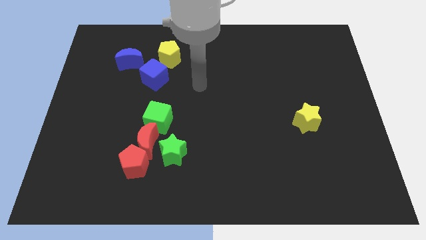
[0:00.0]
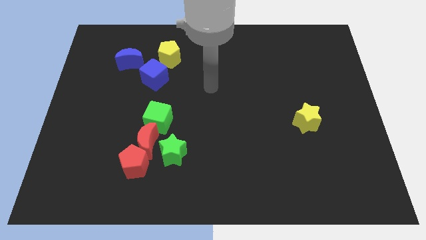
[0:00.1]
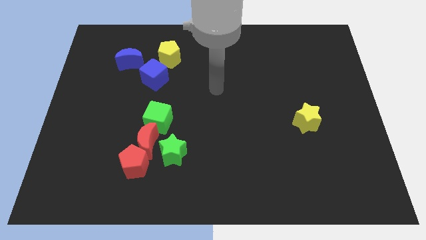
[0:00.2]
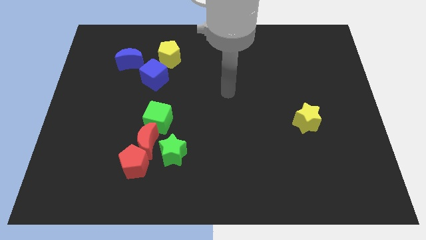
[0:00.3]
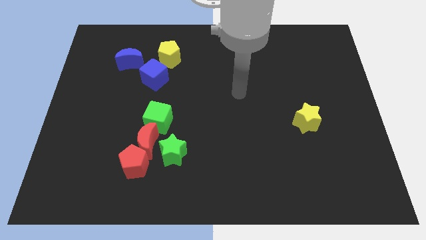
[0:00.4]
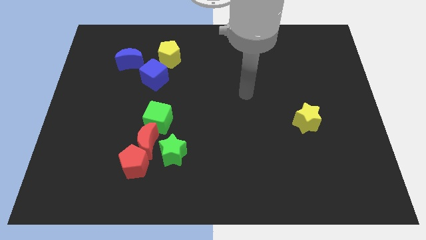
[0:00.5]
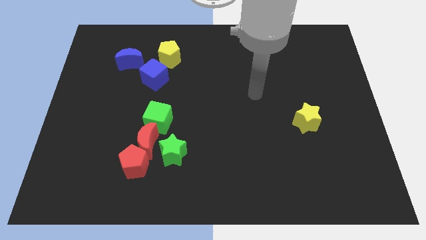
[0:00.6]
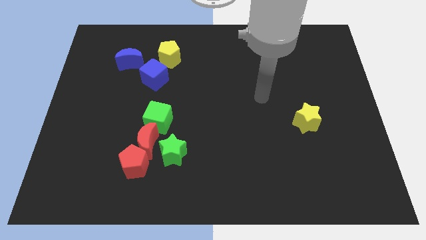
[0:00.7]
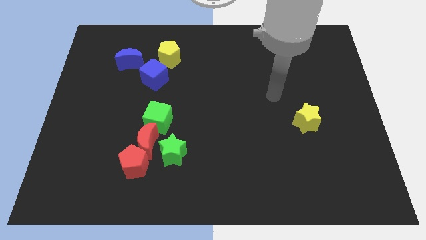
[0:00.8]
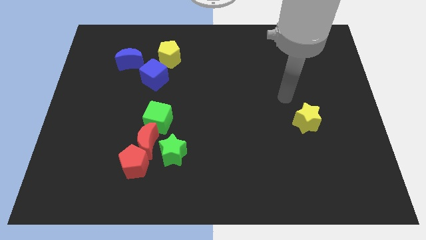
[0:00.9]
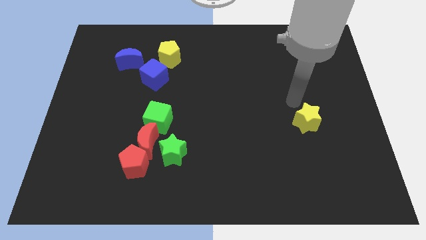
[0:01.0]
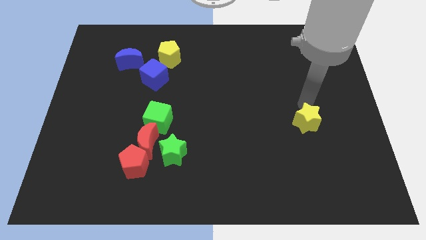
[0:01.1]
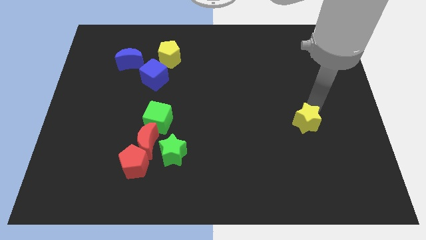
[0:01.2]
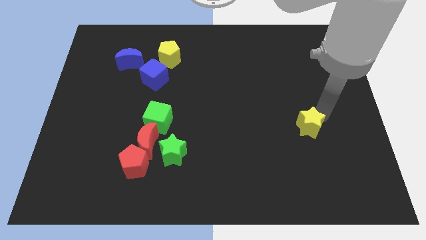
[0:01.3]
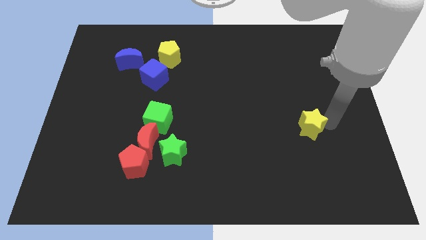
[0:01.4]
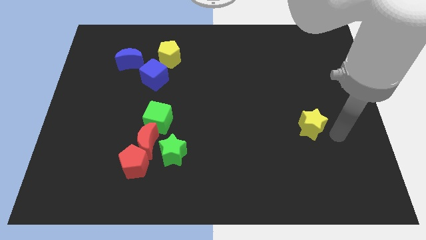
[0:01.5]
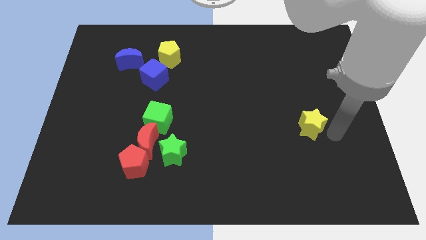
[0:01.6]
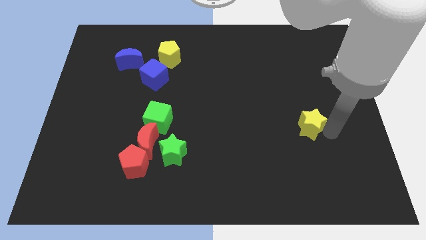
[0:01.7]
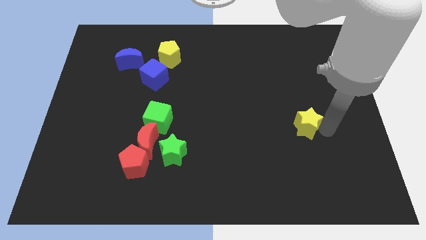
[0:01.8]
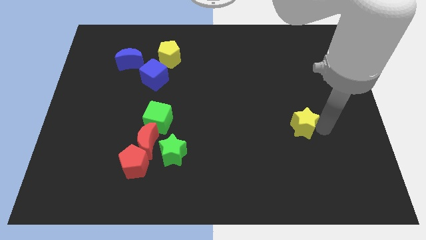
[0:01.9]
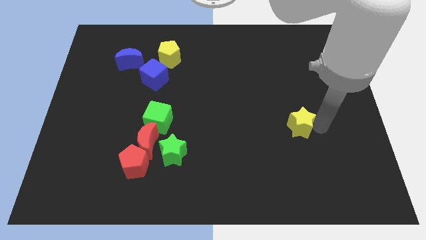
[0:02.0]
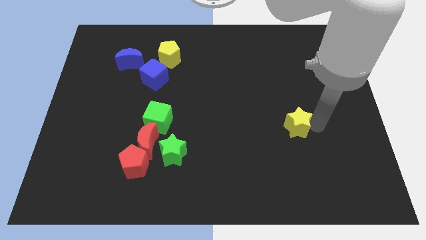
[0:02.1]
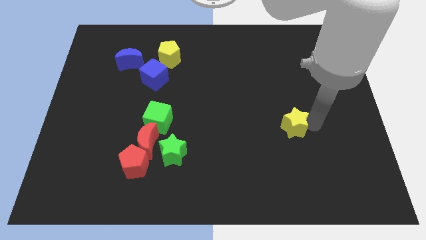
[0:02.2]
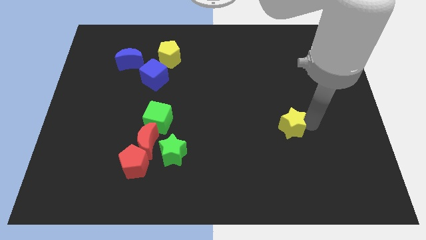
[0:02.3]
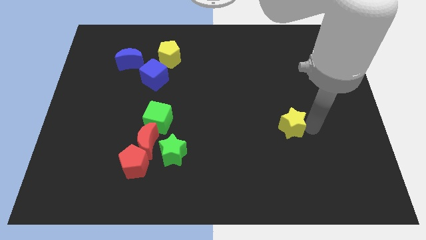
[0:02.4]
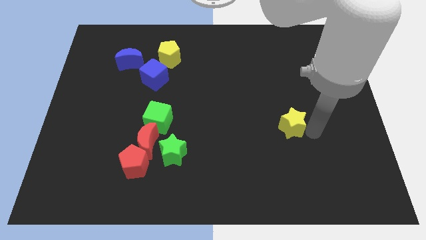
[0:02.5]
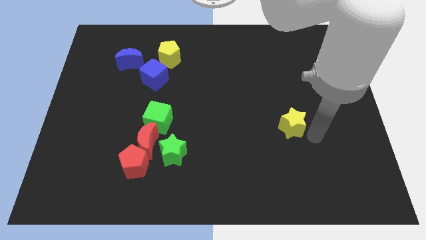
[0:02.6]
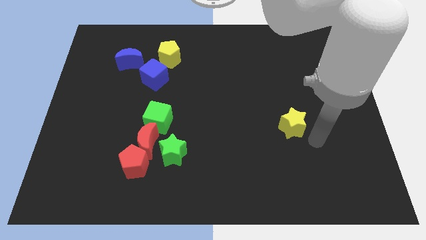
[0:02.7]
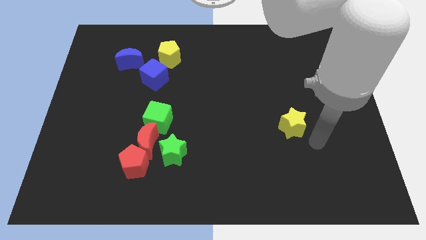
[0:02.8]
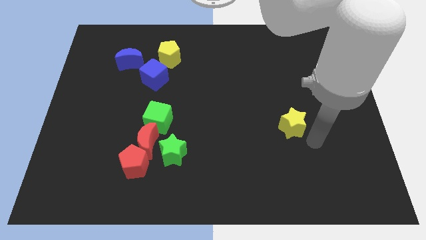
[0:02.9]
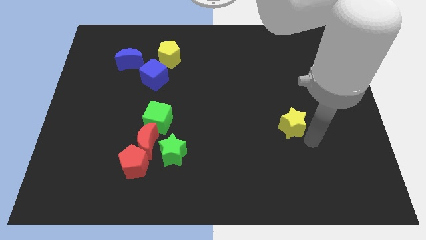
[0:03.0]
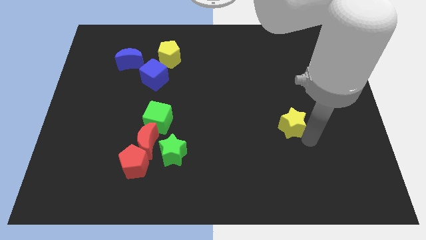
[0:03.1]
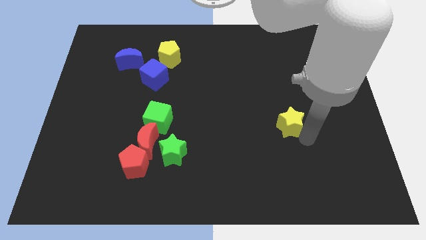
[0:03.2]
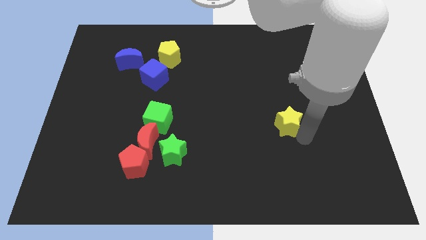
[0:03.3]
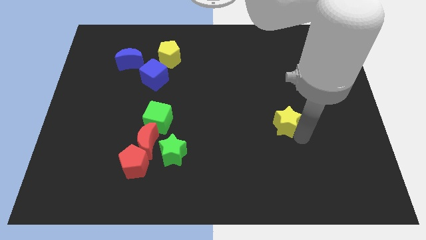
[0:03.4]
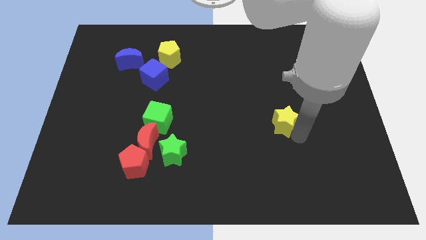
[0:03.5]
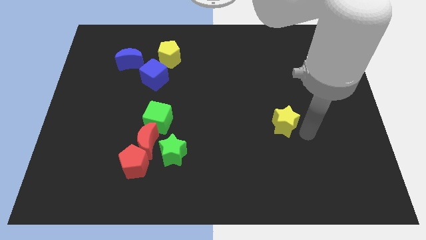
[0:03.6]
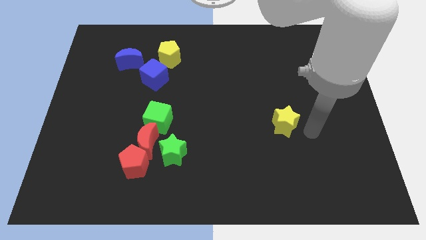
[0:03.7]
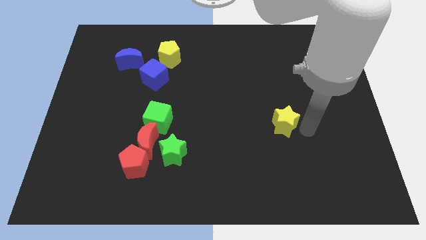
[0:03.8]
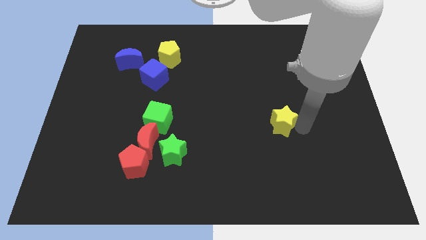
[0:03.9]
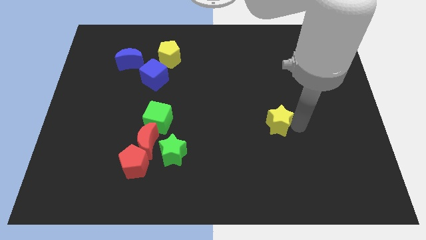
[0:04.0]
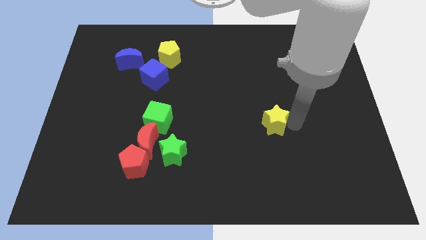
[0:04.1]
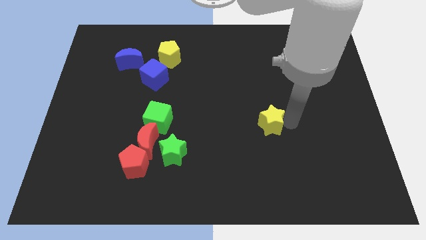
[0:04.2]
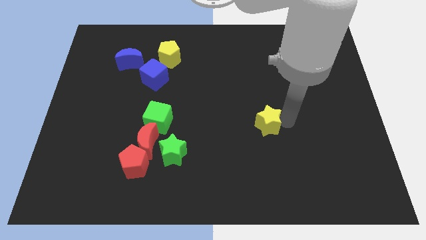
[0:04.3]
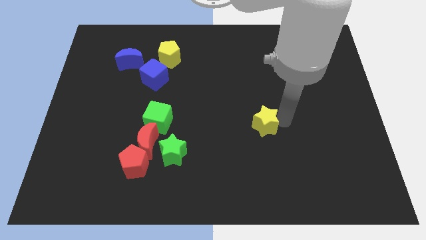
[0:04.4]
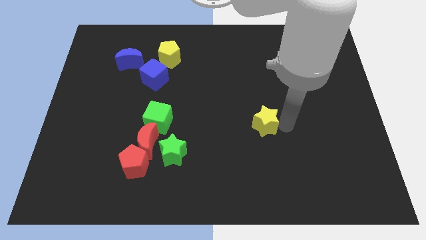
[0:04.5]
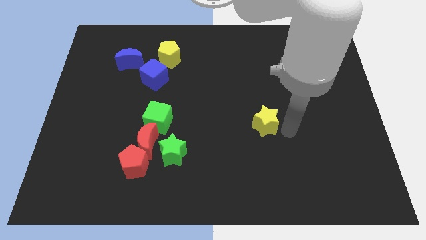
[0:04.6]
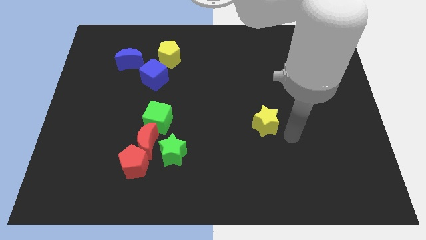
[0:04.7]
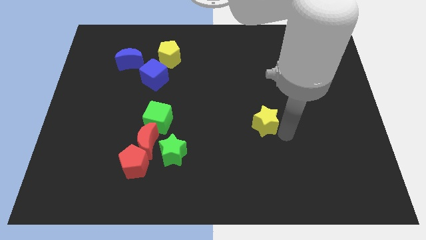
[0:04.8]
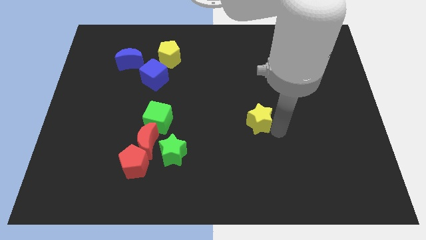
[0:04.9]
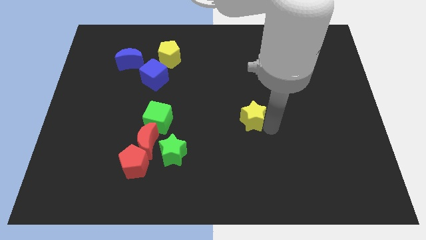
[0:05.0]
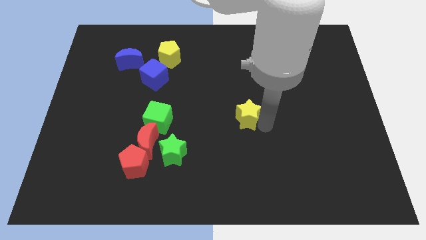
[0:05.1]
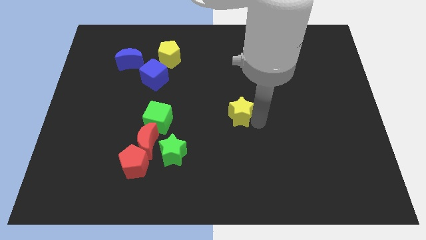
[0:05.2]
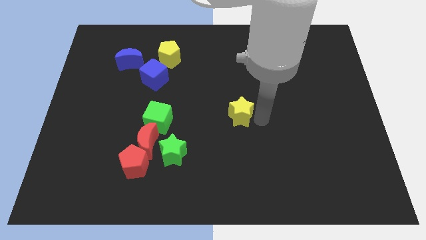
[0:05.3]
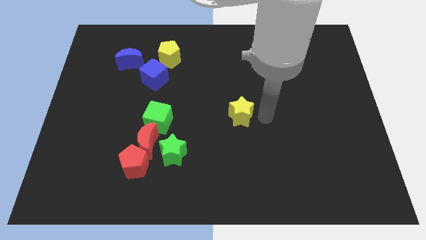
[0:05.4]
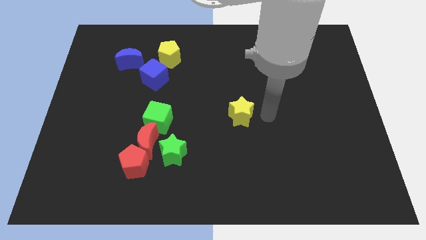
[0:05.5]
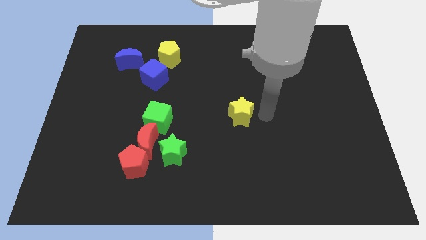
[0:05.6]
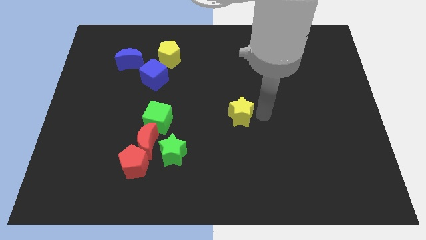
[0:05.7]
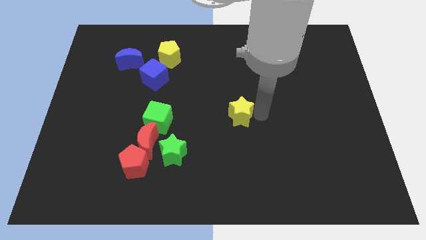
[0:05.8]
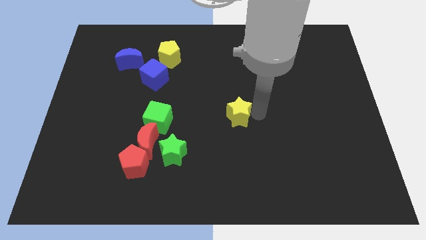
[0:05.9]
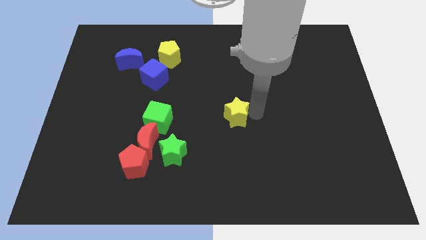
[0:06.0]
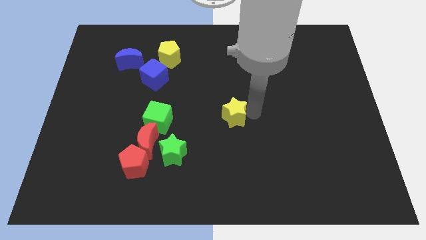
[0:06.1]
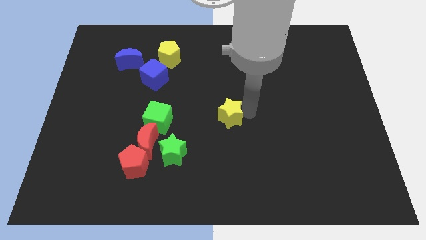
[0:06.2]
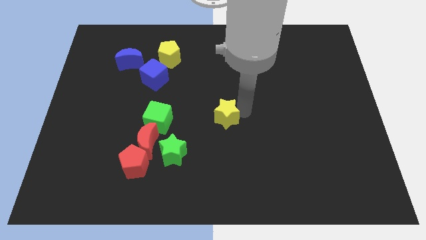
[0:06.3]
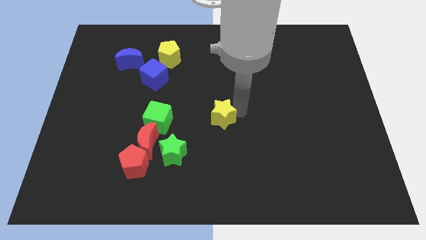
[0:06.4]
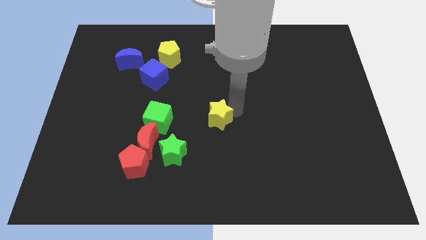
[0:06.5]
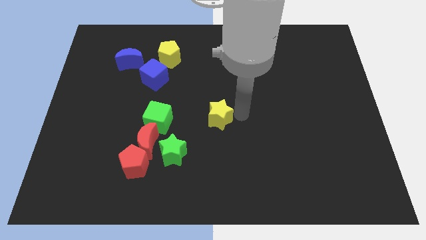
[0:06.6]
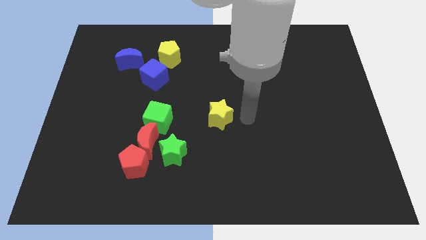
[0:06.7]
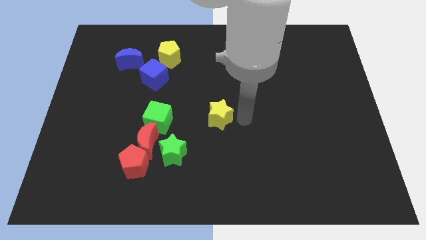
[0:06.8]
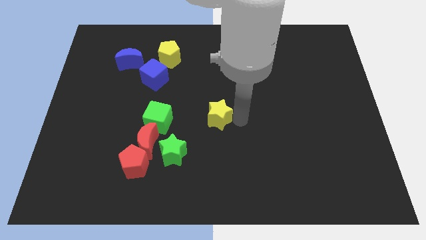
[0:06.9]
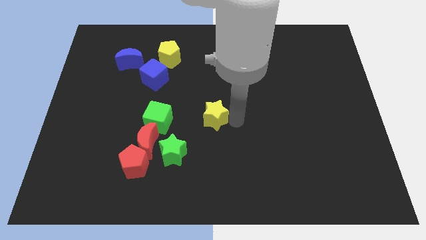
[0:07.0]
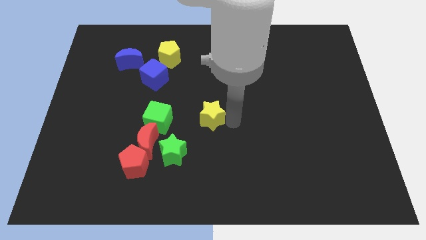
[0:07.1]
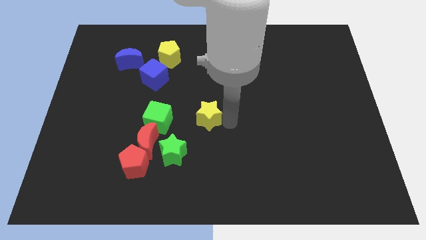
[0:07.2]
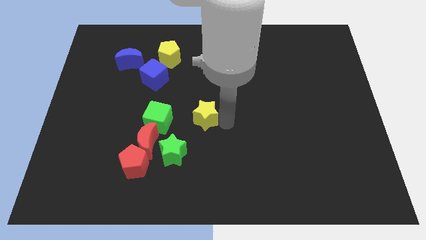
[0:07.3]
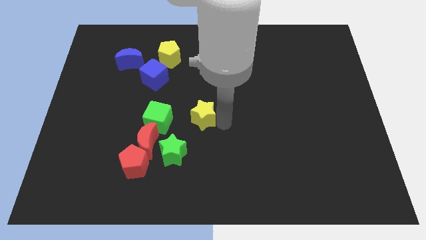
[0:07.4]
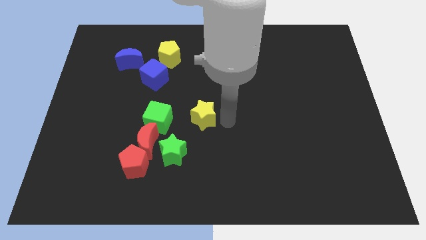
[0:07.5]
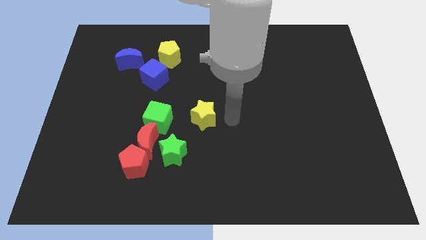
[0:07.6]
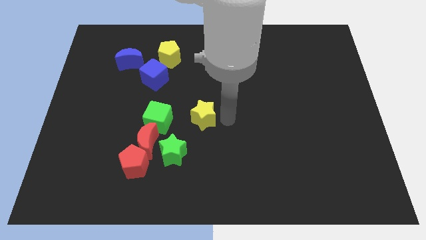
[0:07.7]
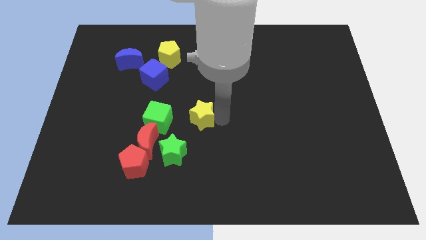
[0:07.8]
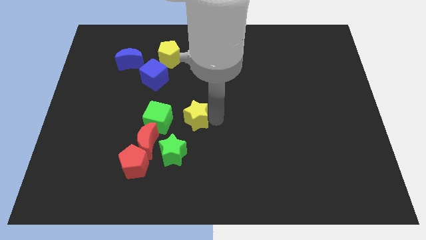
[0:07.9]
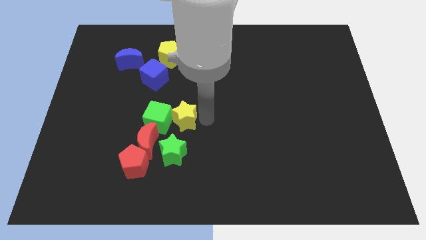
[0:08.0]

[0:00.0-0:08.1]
move the yellow star close to the green cube
